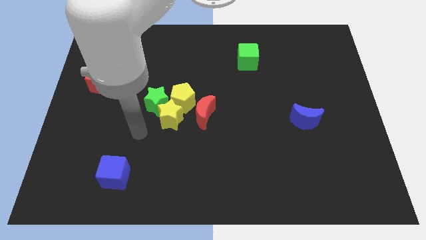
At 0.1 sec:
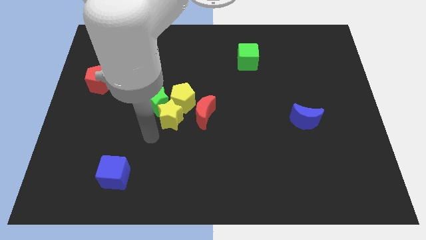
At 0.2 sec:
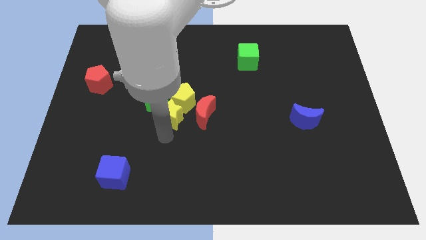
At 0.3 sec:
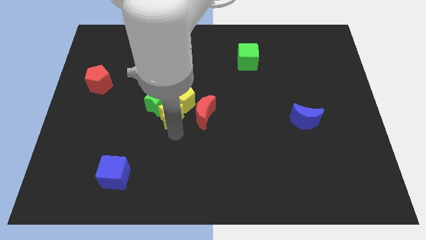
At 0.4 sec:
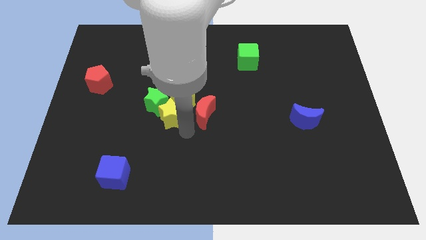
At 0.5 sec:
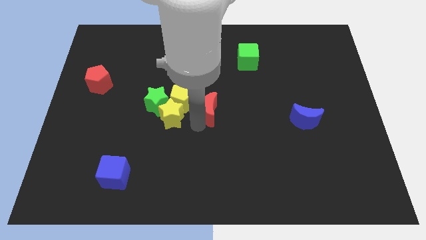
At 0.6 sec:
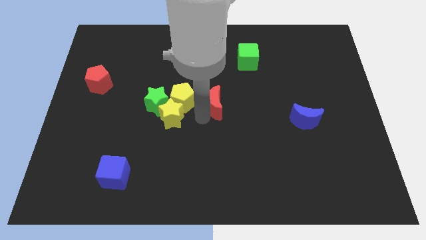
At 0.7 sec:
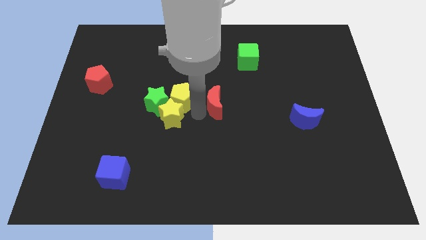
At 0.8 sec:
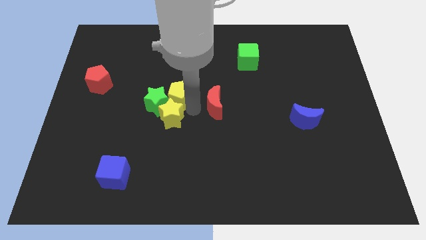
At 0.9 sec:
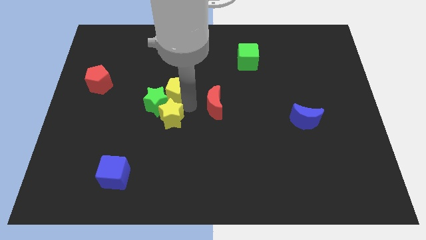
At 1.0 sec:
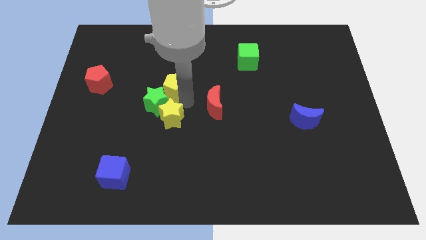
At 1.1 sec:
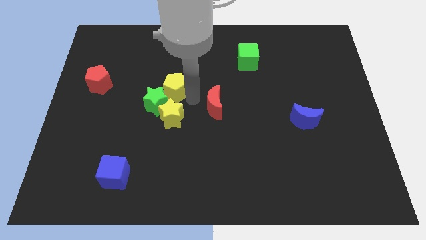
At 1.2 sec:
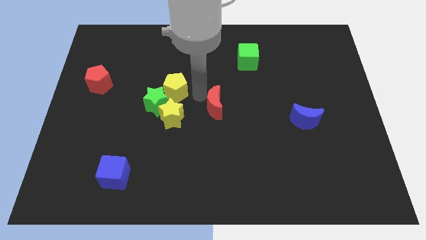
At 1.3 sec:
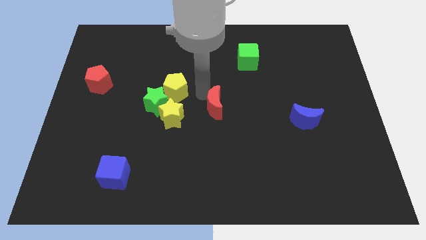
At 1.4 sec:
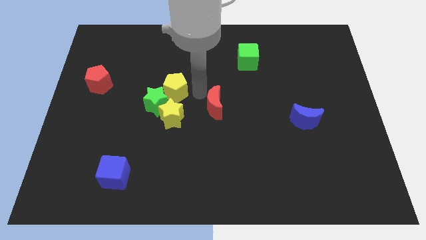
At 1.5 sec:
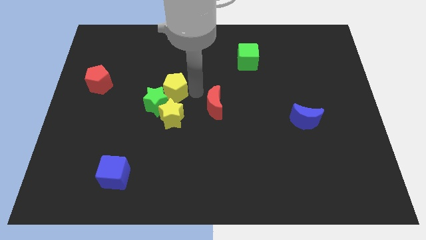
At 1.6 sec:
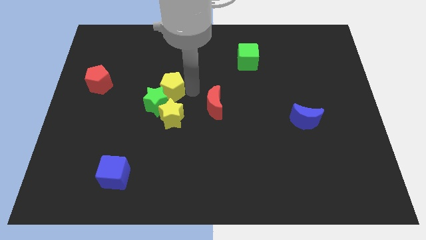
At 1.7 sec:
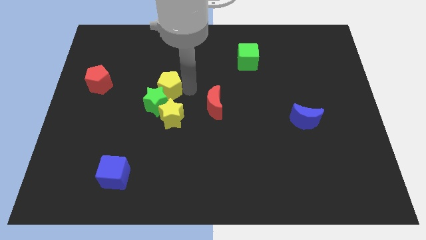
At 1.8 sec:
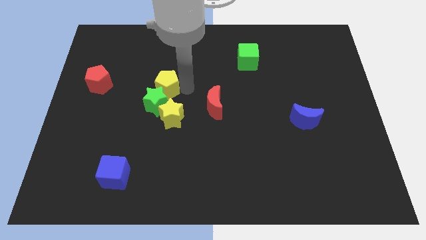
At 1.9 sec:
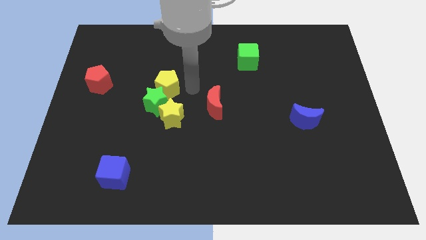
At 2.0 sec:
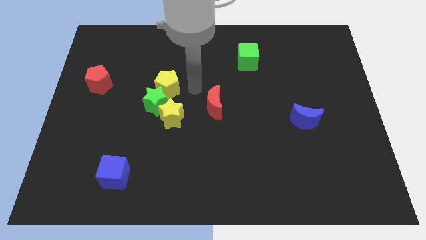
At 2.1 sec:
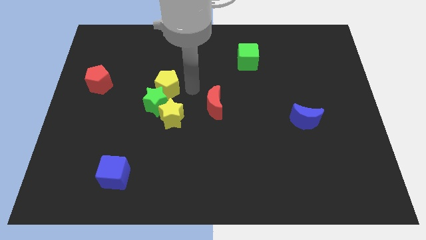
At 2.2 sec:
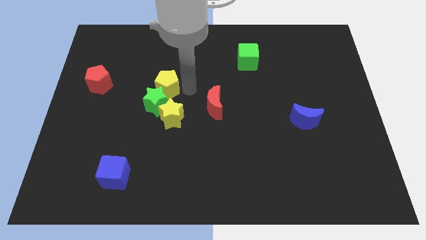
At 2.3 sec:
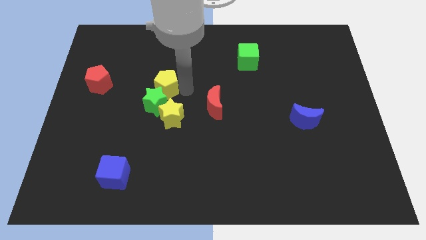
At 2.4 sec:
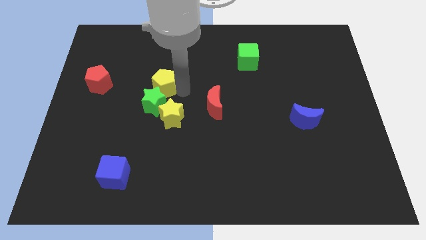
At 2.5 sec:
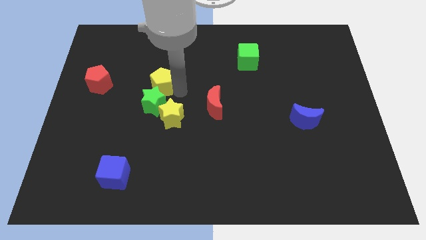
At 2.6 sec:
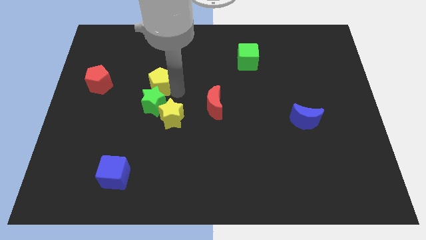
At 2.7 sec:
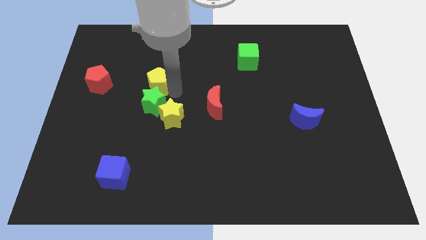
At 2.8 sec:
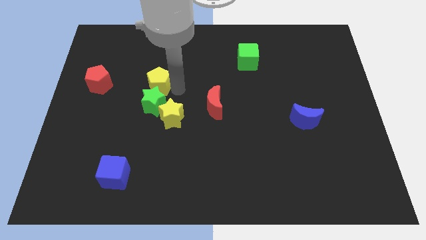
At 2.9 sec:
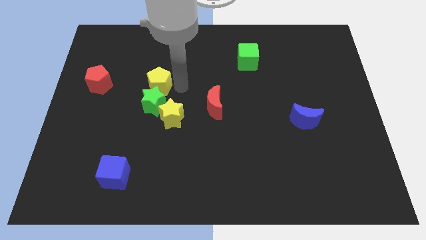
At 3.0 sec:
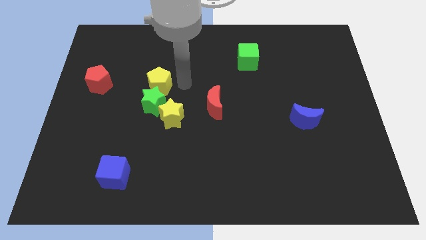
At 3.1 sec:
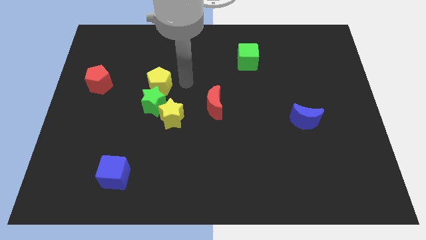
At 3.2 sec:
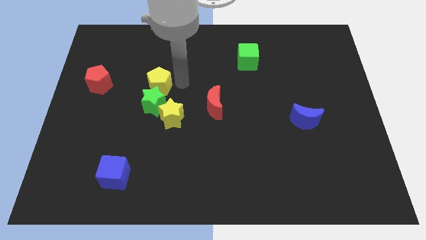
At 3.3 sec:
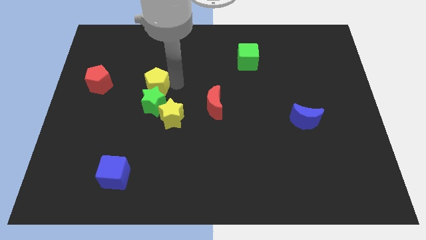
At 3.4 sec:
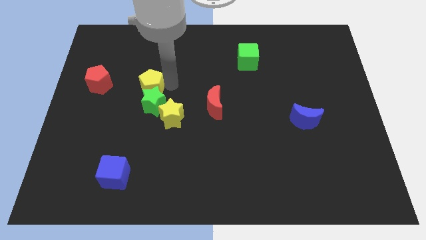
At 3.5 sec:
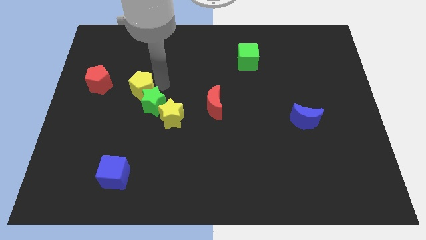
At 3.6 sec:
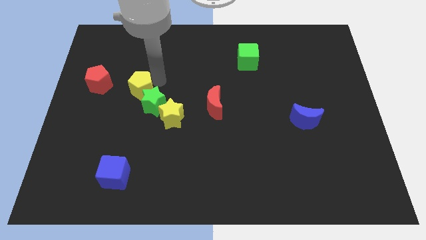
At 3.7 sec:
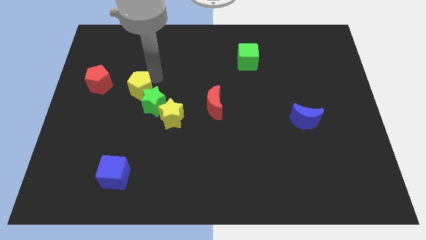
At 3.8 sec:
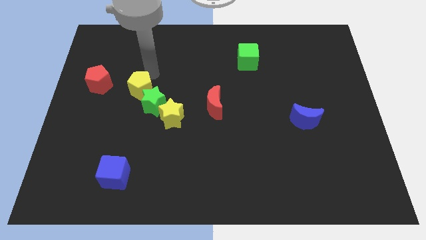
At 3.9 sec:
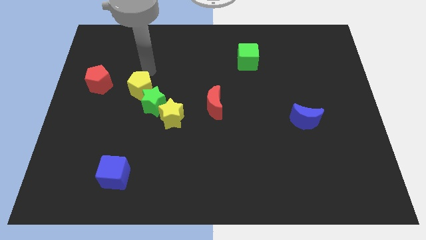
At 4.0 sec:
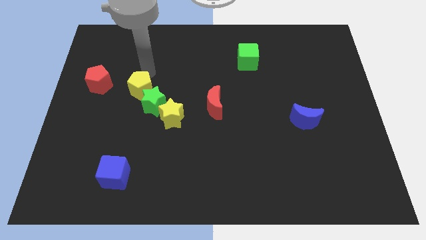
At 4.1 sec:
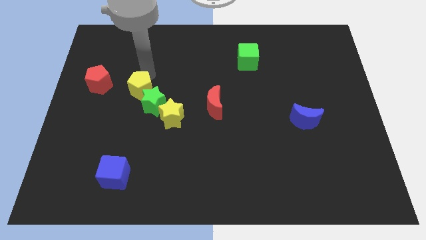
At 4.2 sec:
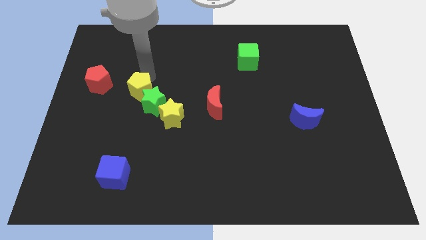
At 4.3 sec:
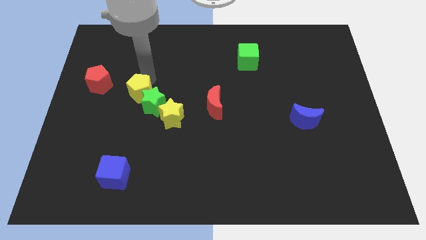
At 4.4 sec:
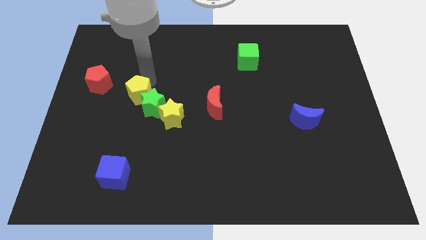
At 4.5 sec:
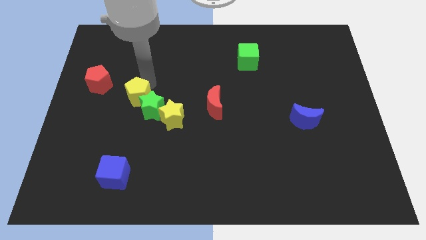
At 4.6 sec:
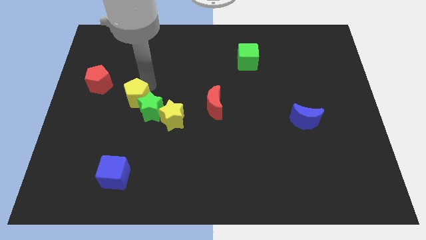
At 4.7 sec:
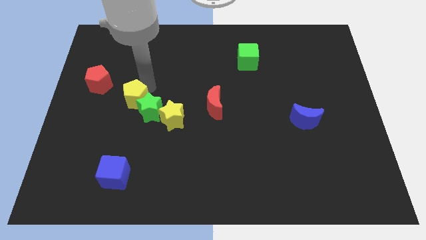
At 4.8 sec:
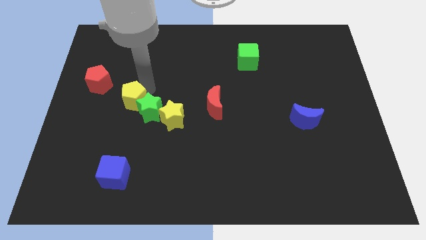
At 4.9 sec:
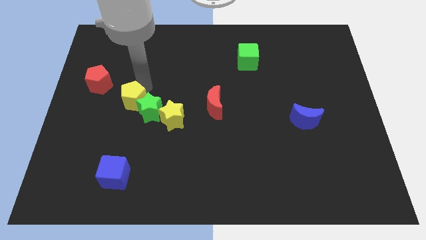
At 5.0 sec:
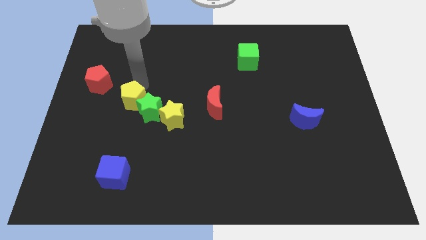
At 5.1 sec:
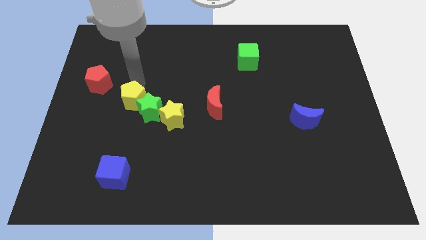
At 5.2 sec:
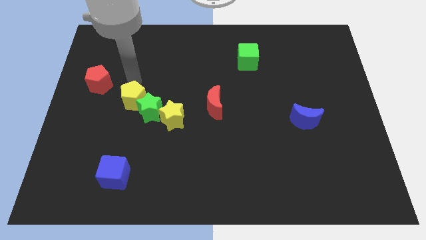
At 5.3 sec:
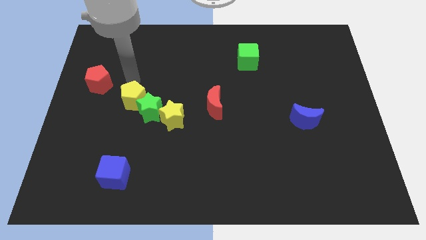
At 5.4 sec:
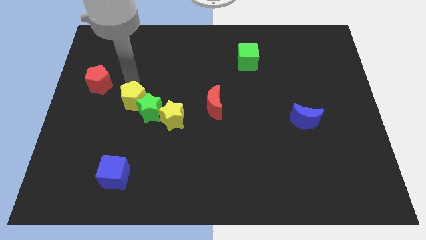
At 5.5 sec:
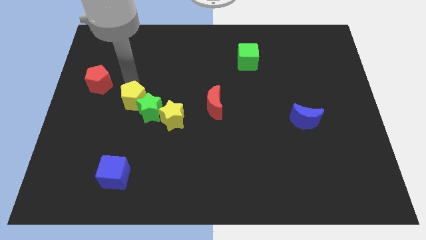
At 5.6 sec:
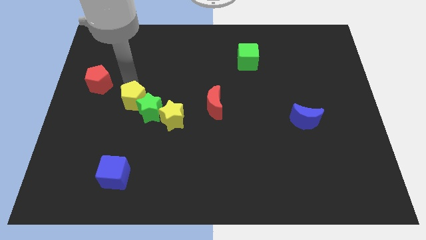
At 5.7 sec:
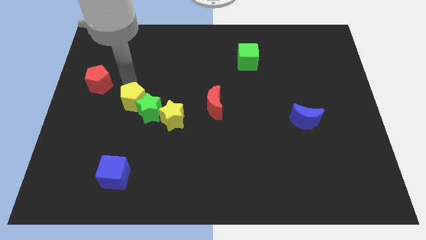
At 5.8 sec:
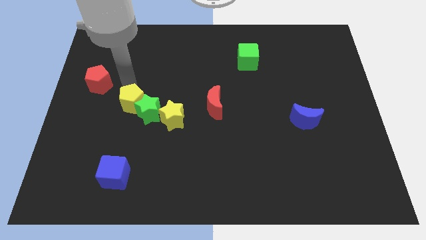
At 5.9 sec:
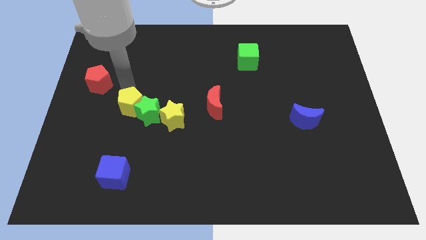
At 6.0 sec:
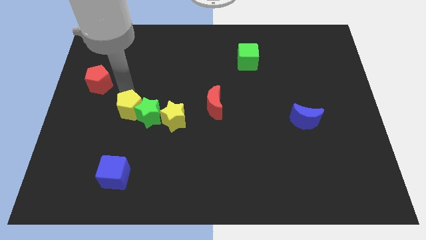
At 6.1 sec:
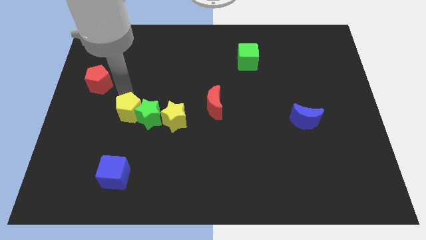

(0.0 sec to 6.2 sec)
move the yellow pentagon to the top of the blue cube
